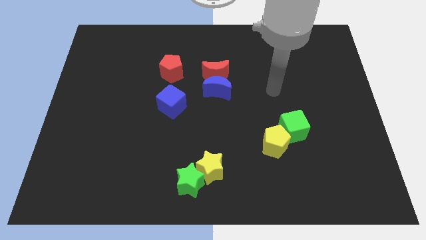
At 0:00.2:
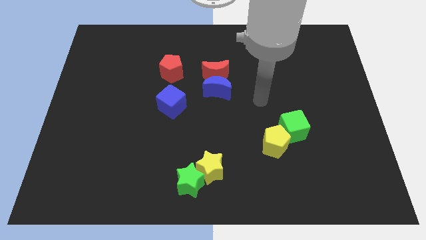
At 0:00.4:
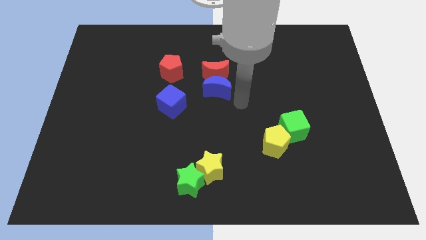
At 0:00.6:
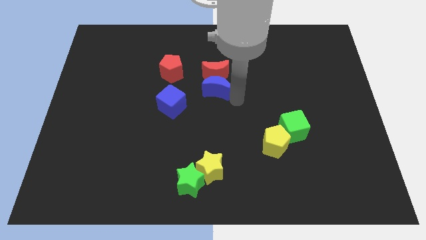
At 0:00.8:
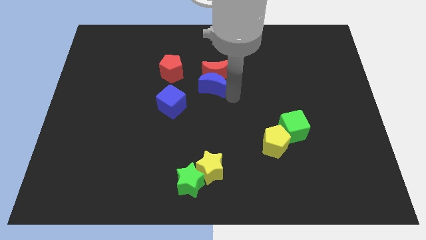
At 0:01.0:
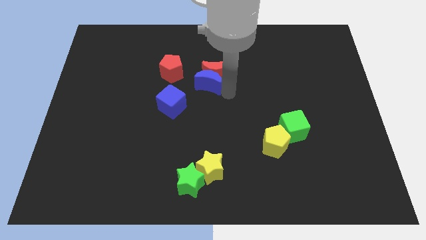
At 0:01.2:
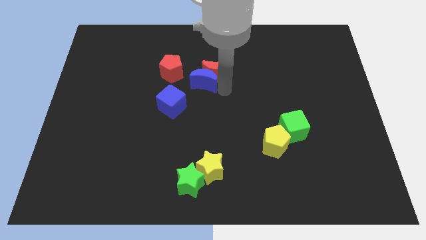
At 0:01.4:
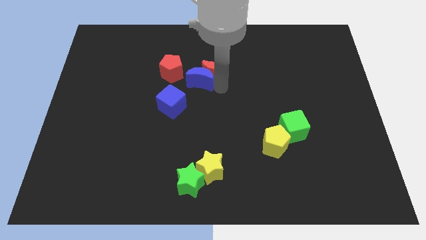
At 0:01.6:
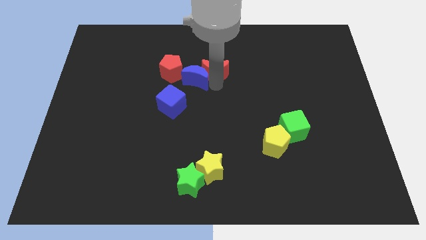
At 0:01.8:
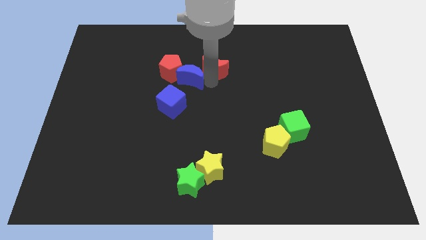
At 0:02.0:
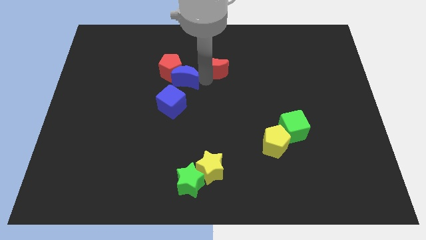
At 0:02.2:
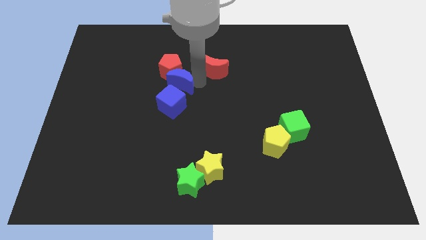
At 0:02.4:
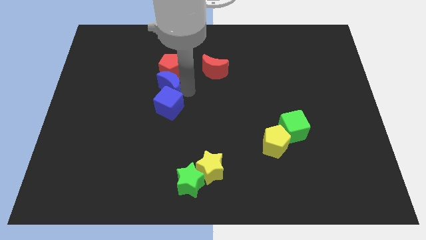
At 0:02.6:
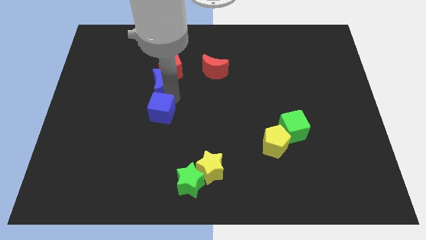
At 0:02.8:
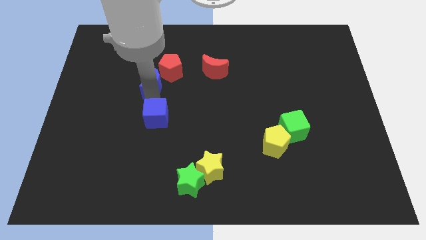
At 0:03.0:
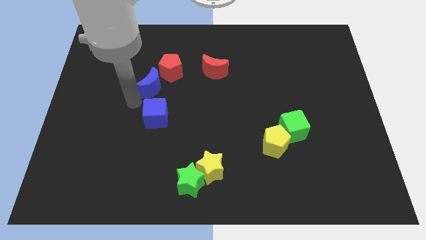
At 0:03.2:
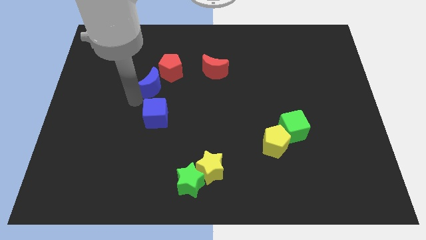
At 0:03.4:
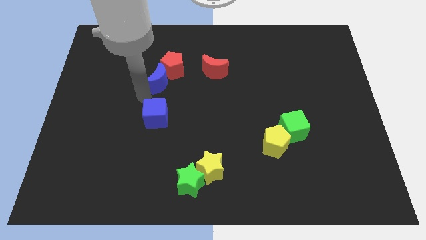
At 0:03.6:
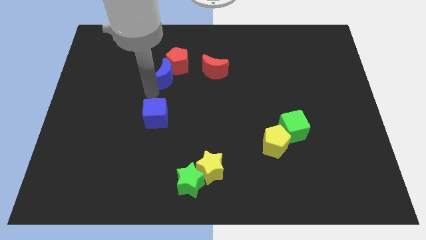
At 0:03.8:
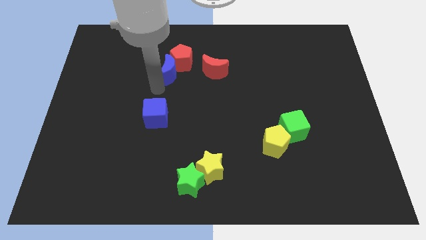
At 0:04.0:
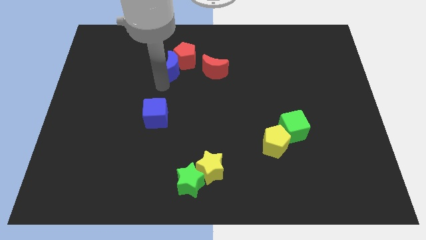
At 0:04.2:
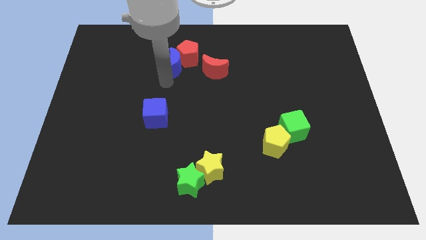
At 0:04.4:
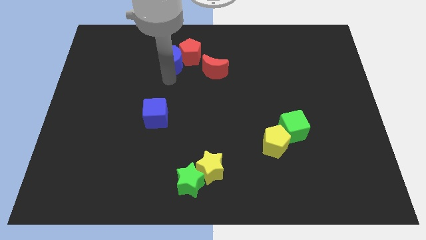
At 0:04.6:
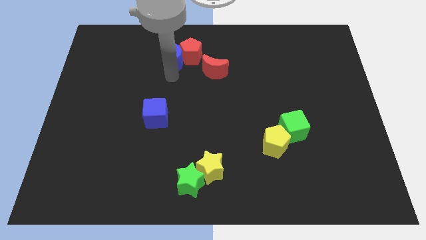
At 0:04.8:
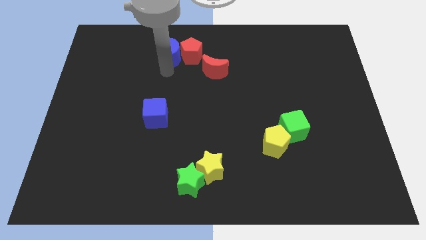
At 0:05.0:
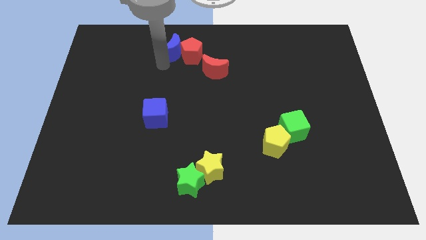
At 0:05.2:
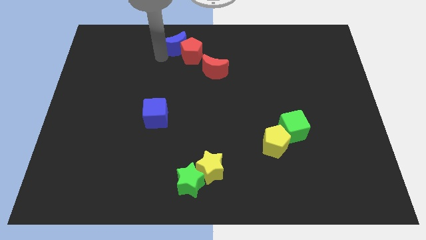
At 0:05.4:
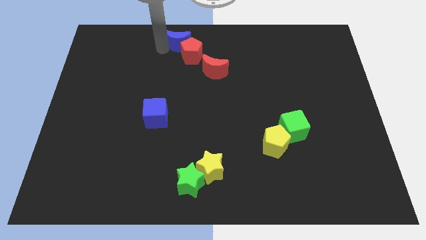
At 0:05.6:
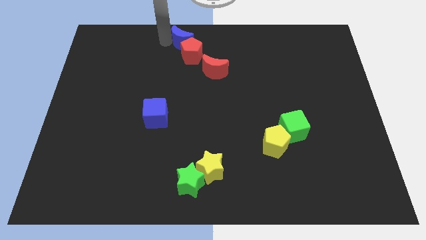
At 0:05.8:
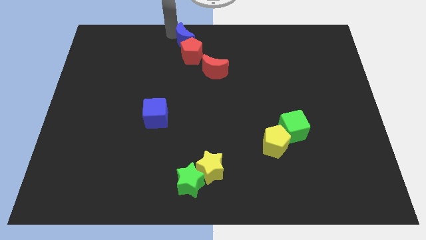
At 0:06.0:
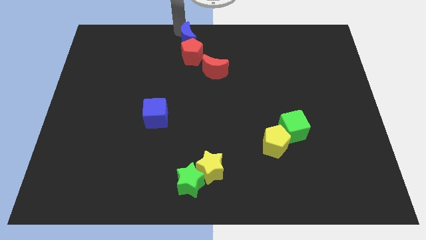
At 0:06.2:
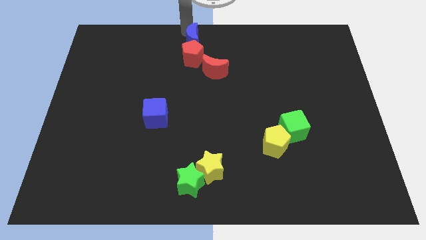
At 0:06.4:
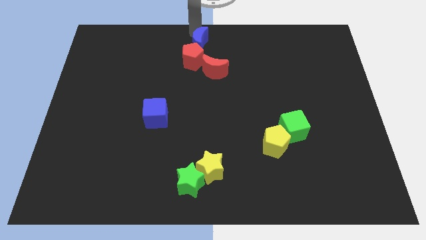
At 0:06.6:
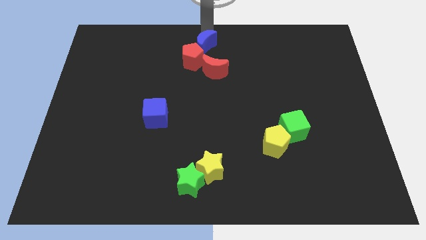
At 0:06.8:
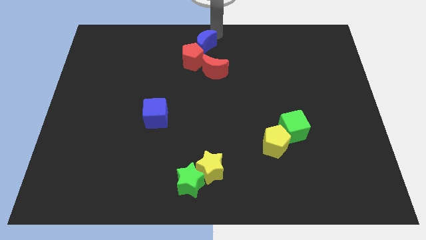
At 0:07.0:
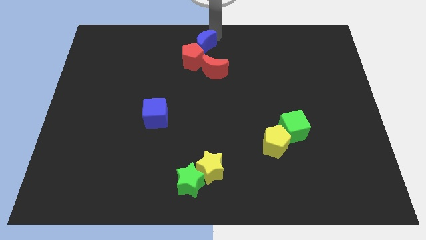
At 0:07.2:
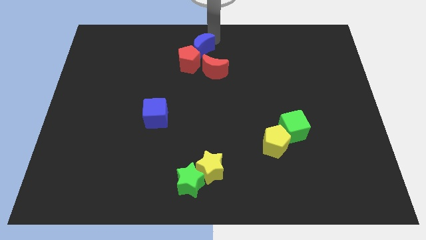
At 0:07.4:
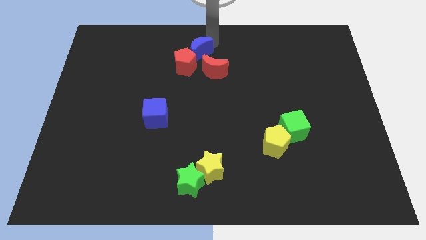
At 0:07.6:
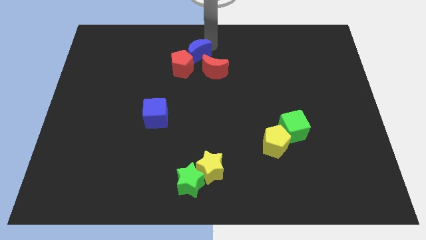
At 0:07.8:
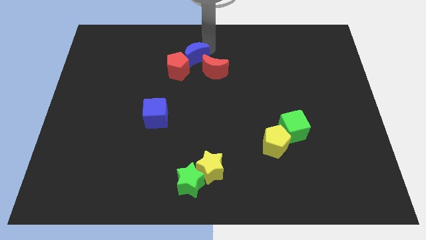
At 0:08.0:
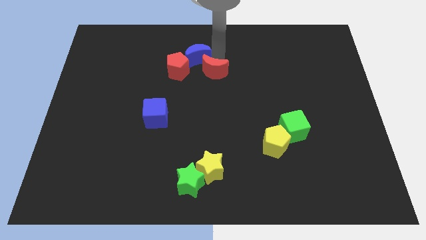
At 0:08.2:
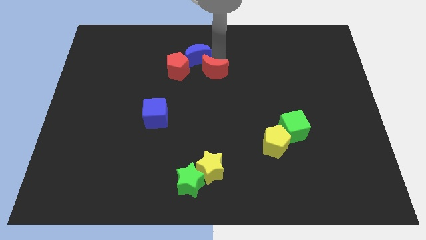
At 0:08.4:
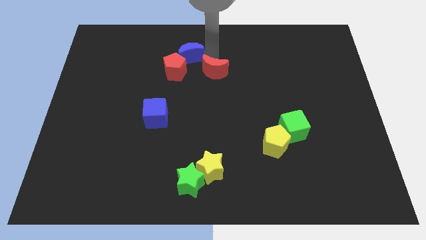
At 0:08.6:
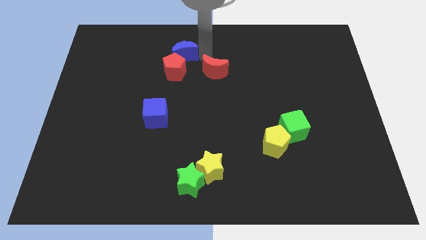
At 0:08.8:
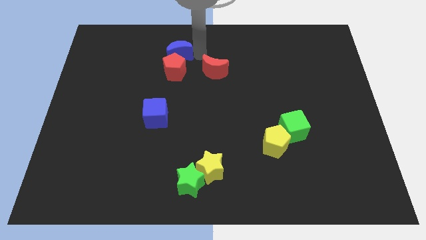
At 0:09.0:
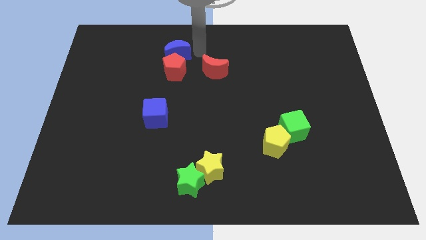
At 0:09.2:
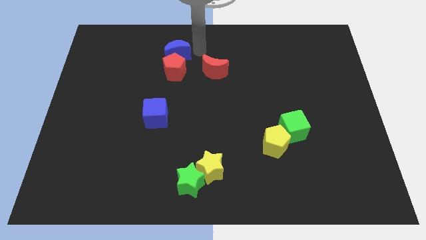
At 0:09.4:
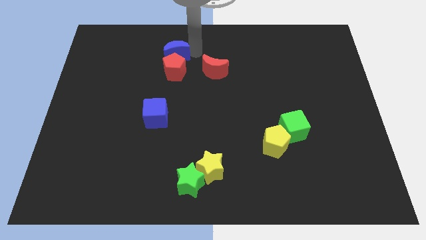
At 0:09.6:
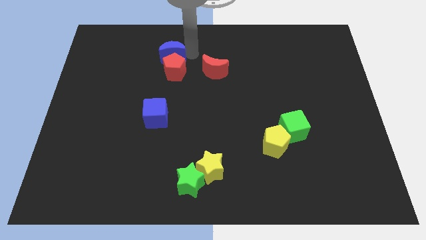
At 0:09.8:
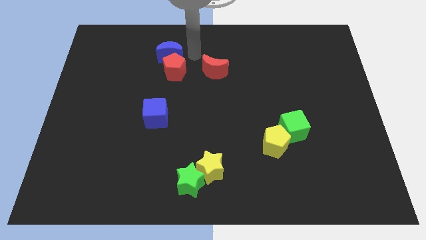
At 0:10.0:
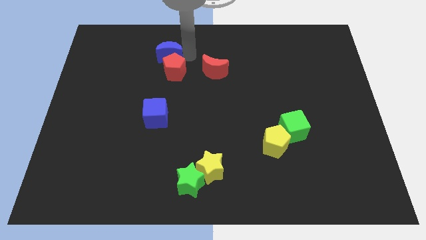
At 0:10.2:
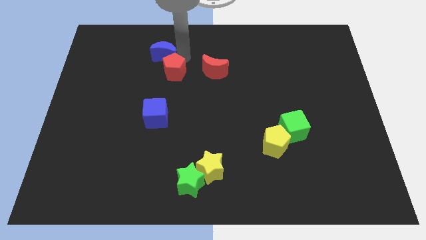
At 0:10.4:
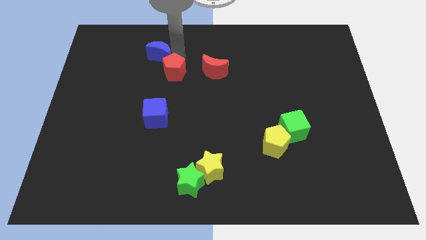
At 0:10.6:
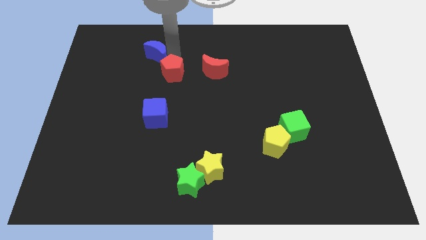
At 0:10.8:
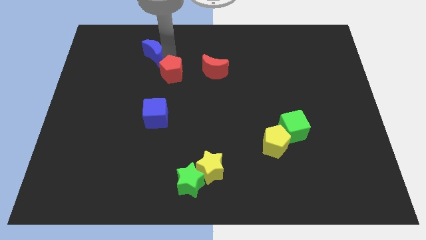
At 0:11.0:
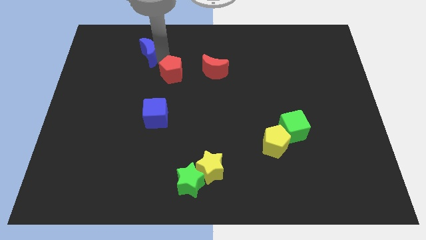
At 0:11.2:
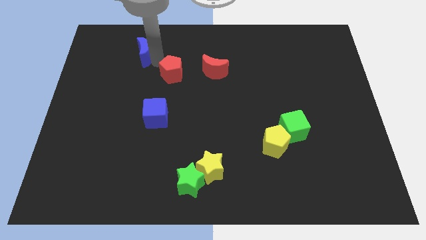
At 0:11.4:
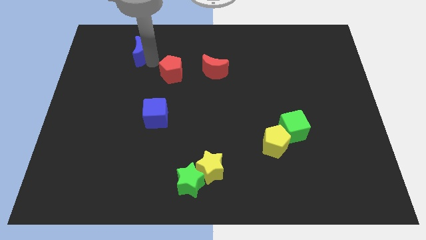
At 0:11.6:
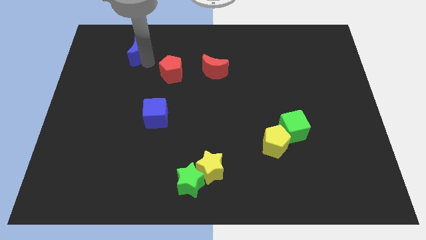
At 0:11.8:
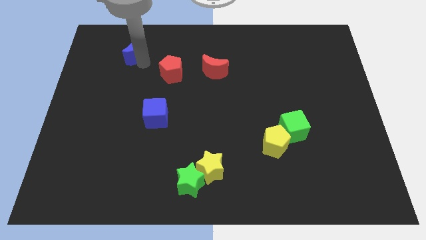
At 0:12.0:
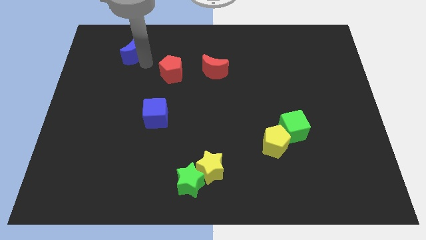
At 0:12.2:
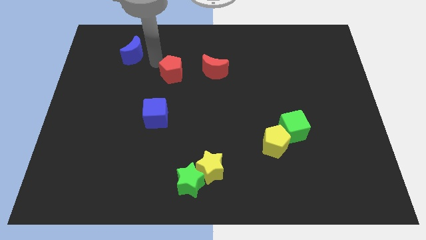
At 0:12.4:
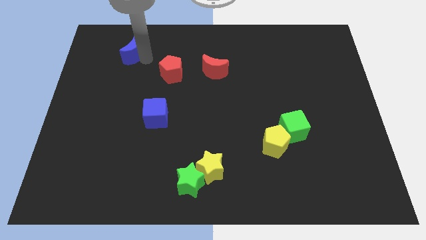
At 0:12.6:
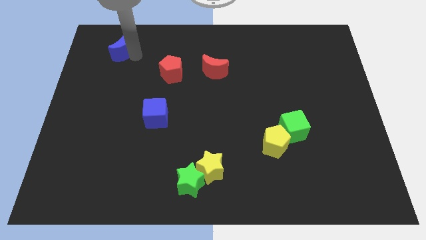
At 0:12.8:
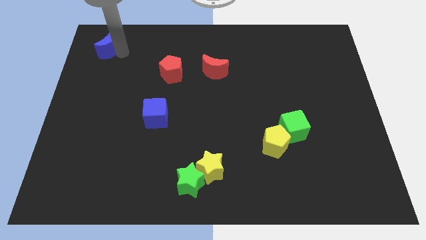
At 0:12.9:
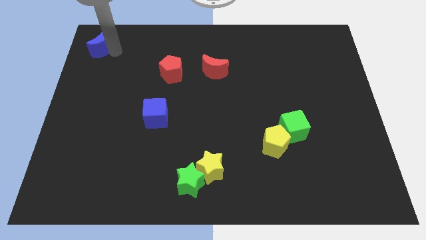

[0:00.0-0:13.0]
push the blue moon to the top left corner
